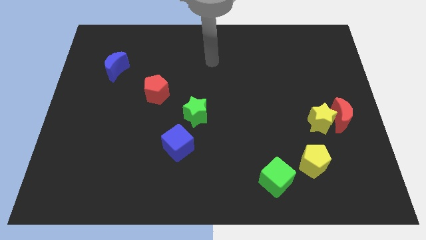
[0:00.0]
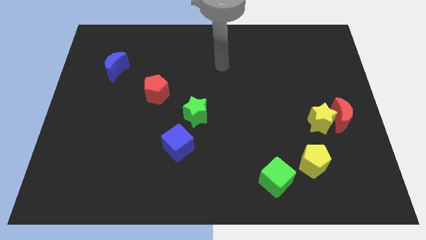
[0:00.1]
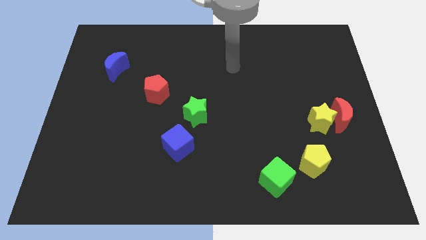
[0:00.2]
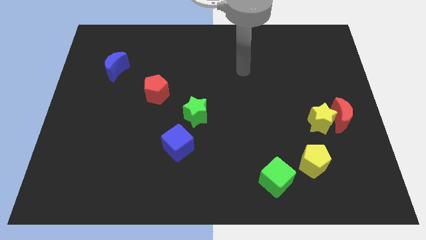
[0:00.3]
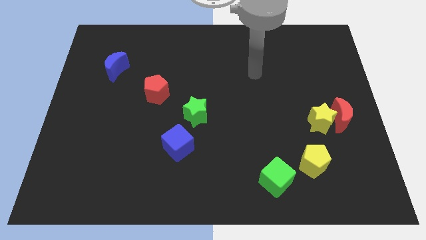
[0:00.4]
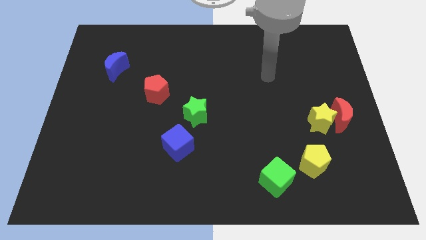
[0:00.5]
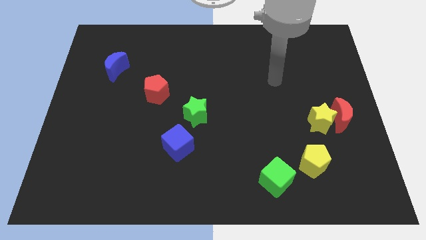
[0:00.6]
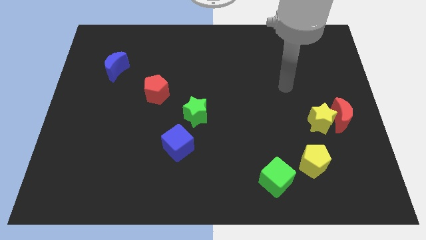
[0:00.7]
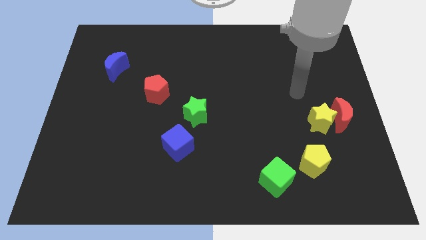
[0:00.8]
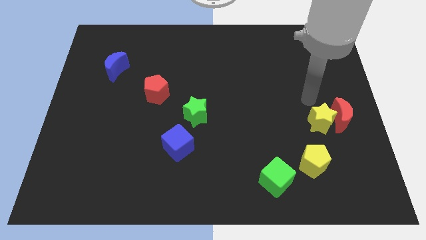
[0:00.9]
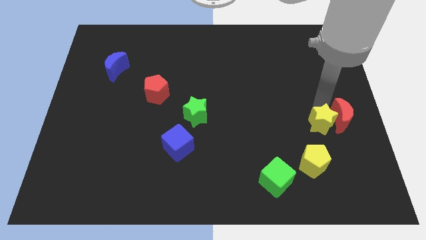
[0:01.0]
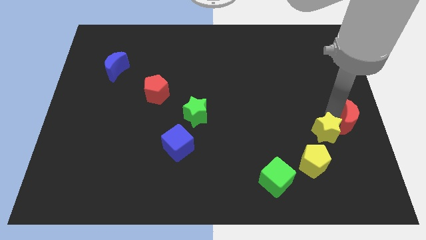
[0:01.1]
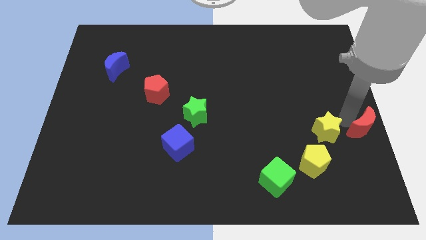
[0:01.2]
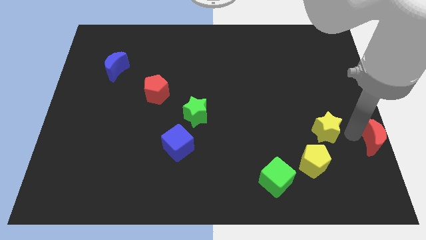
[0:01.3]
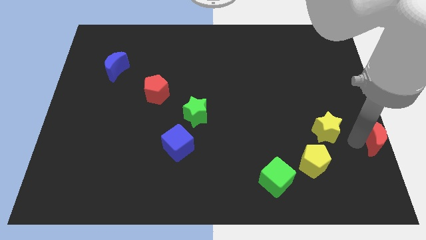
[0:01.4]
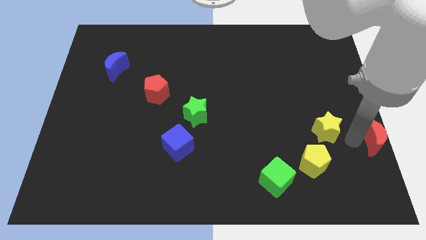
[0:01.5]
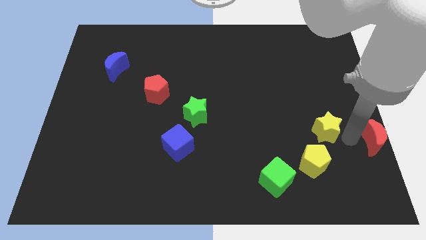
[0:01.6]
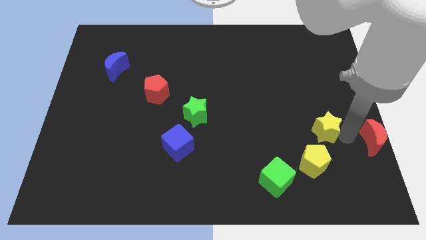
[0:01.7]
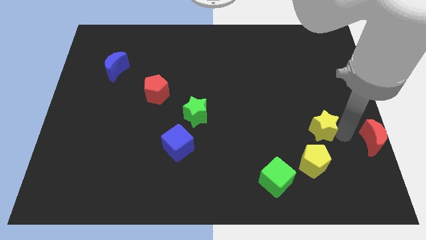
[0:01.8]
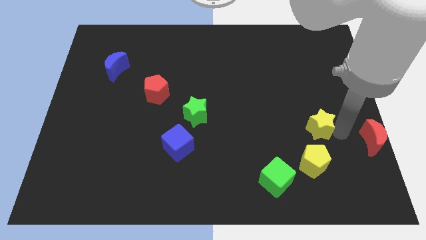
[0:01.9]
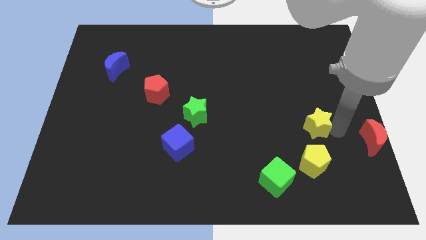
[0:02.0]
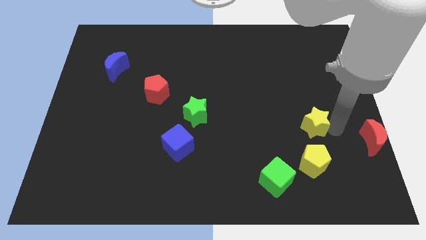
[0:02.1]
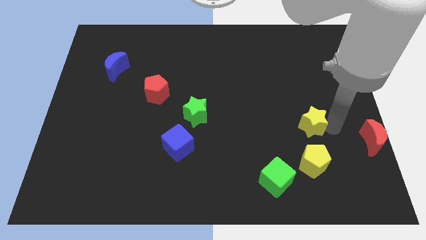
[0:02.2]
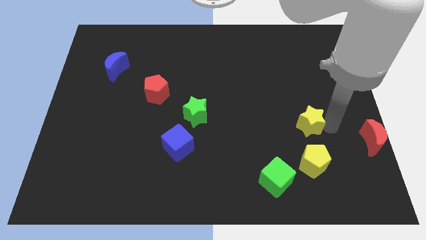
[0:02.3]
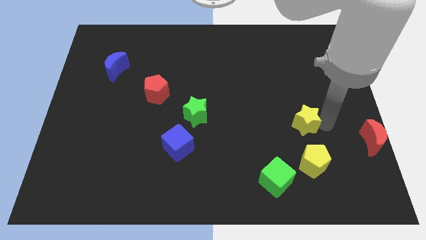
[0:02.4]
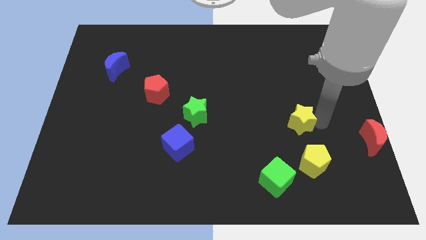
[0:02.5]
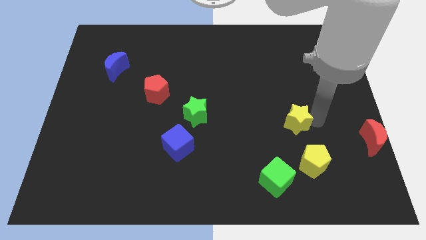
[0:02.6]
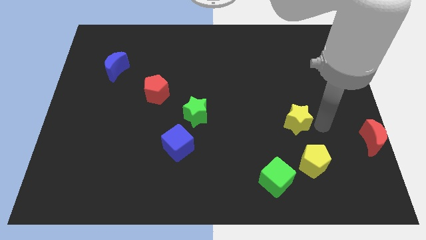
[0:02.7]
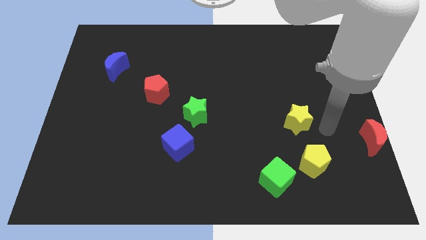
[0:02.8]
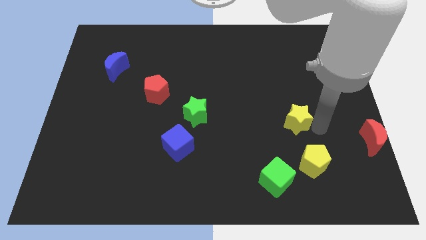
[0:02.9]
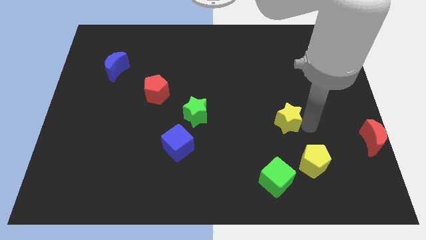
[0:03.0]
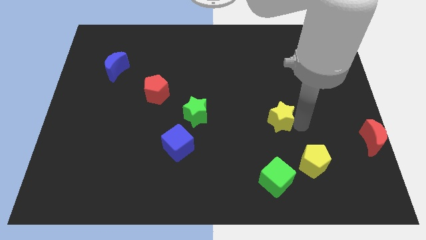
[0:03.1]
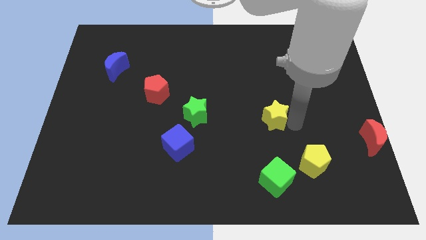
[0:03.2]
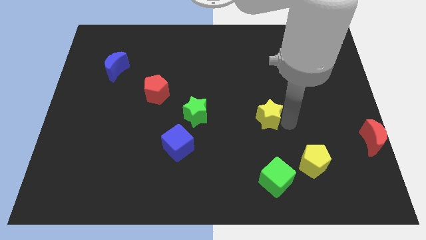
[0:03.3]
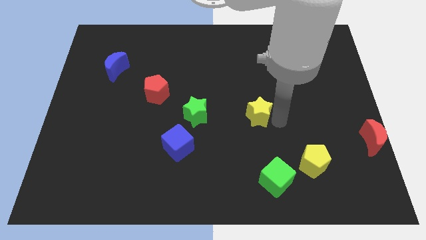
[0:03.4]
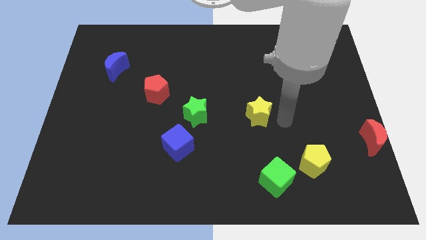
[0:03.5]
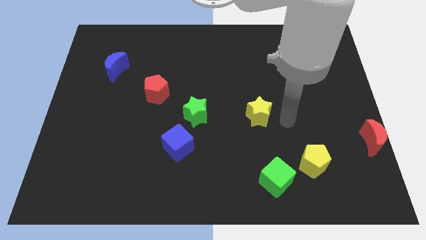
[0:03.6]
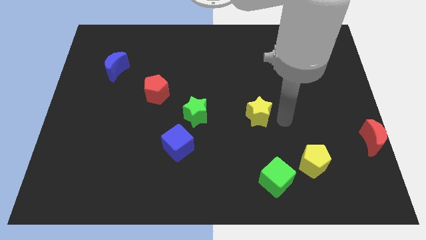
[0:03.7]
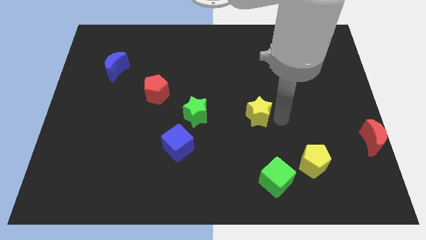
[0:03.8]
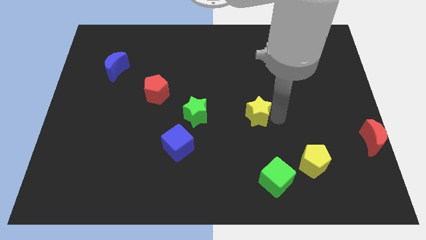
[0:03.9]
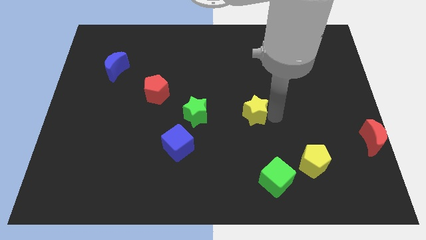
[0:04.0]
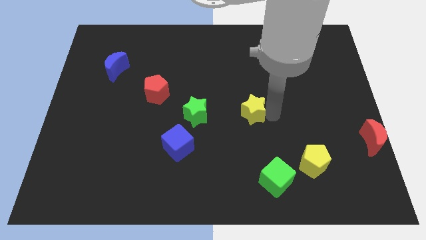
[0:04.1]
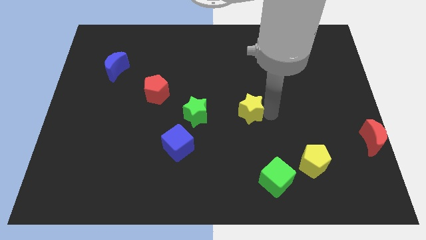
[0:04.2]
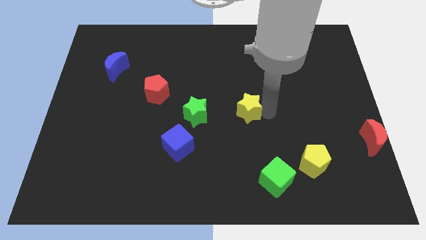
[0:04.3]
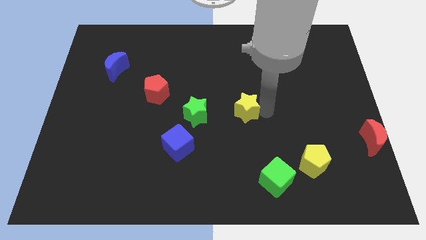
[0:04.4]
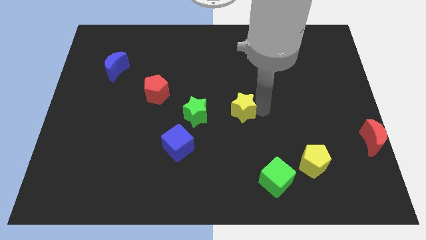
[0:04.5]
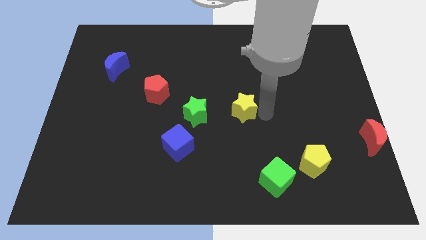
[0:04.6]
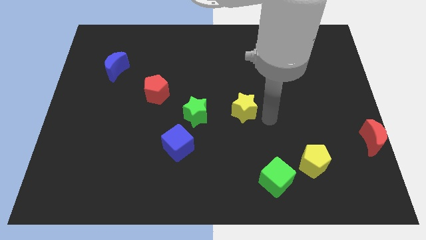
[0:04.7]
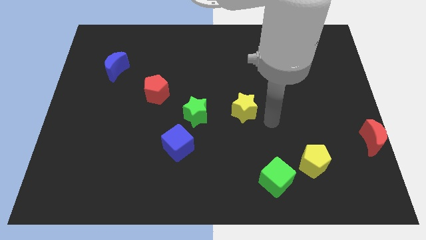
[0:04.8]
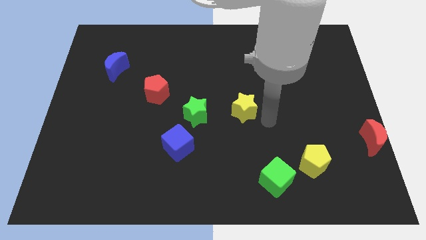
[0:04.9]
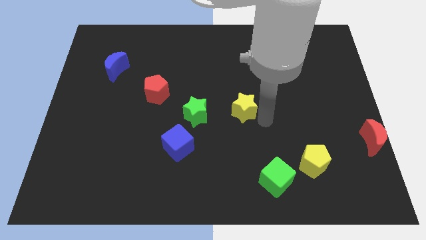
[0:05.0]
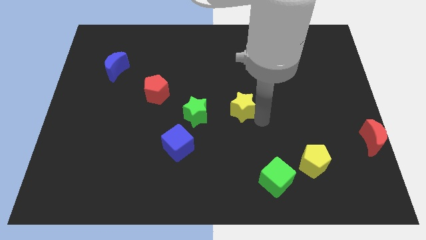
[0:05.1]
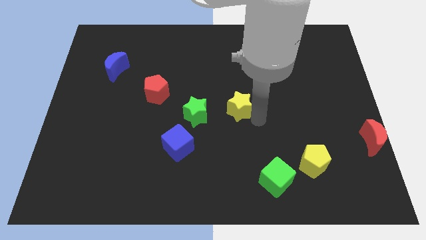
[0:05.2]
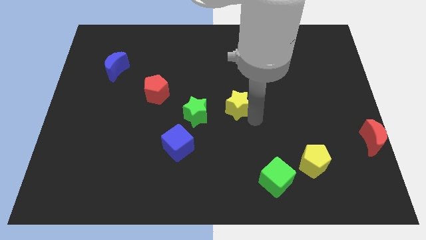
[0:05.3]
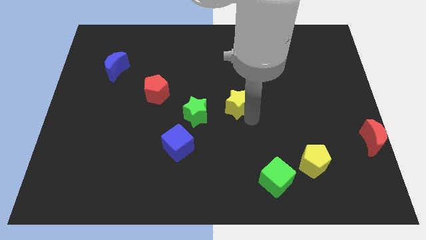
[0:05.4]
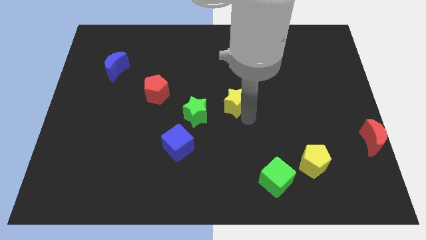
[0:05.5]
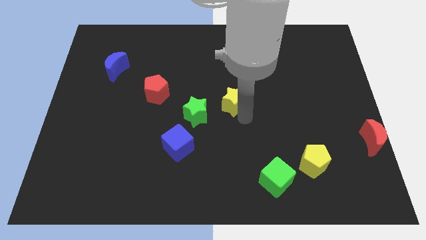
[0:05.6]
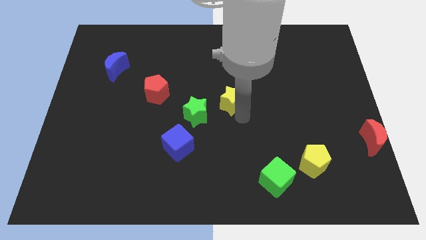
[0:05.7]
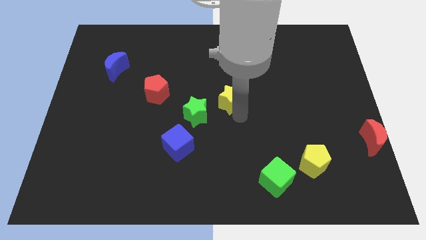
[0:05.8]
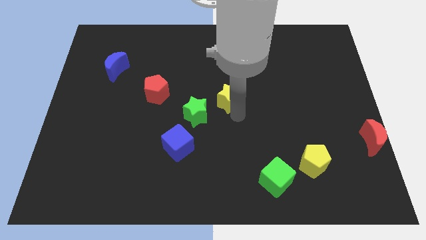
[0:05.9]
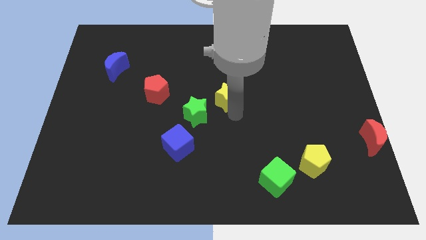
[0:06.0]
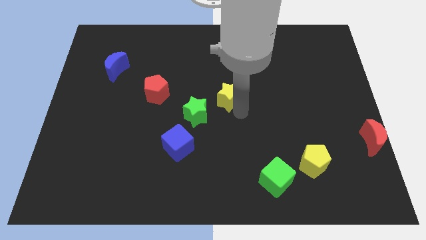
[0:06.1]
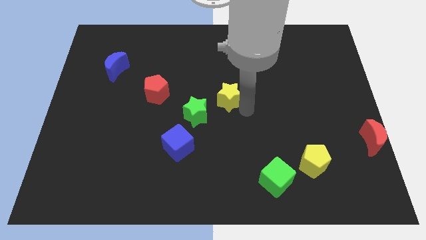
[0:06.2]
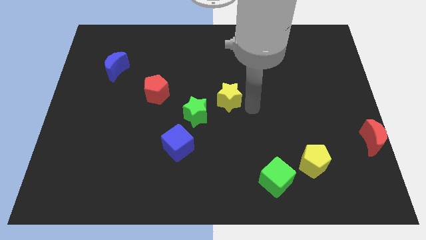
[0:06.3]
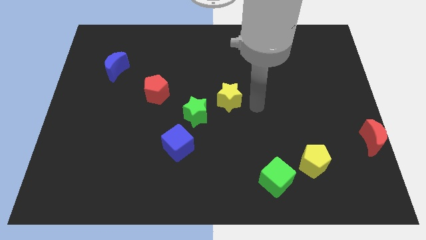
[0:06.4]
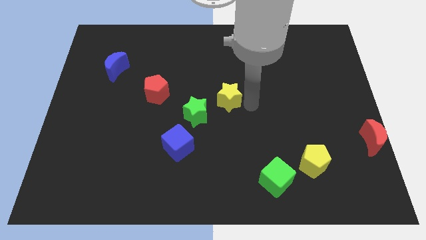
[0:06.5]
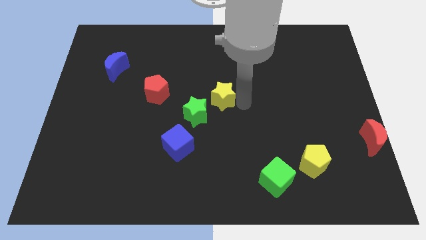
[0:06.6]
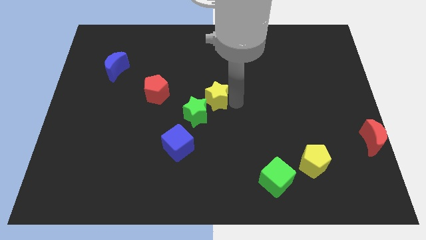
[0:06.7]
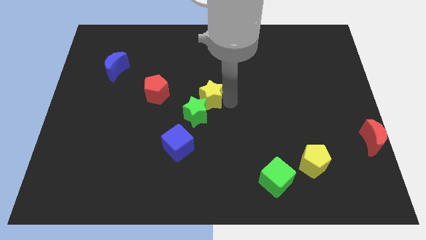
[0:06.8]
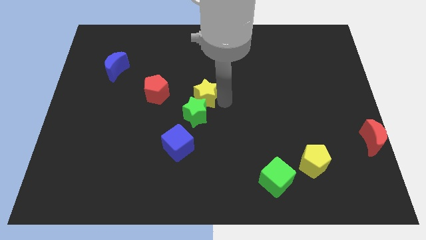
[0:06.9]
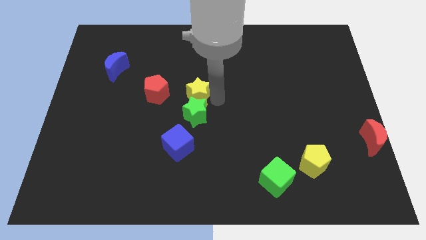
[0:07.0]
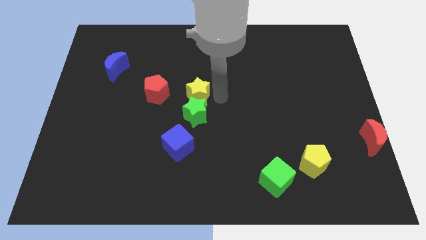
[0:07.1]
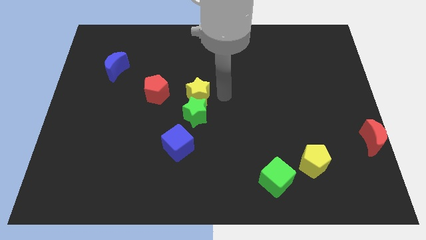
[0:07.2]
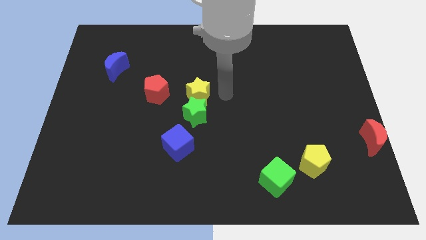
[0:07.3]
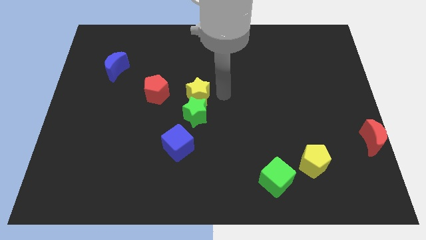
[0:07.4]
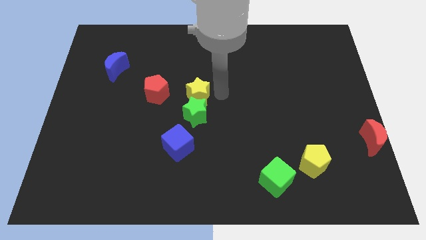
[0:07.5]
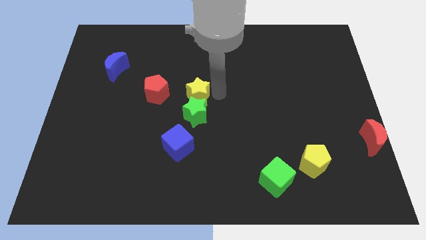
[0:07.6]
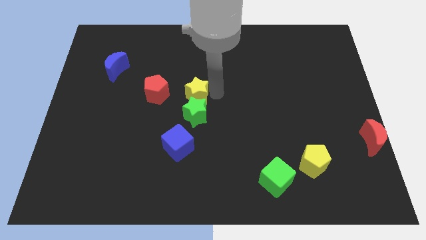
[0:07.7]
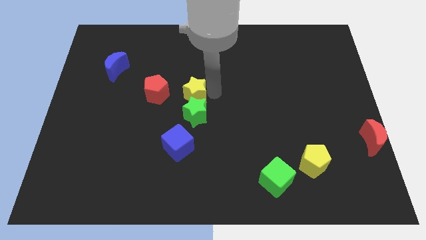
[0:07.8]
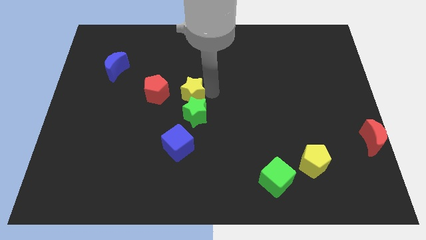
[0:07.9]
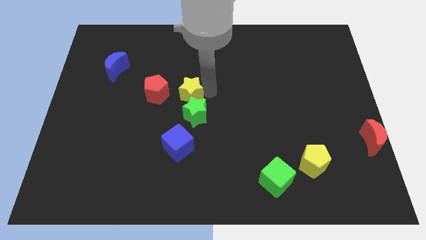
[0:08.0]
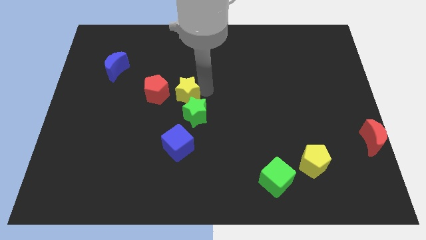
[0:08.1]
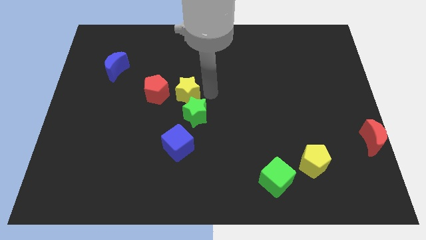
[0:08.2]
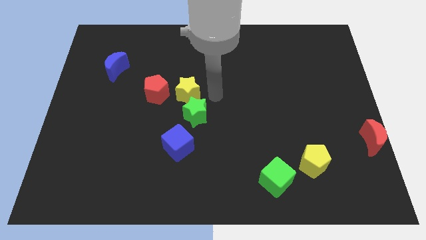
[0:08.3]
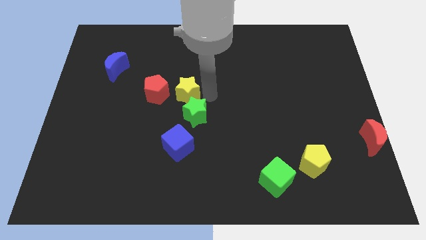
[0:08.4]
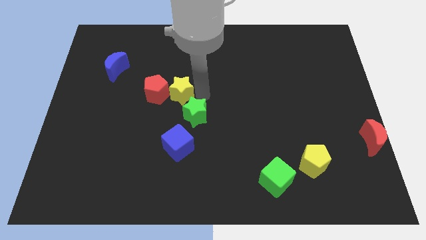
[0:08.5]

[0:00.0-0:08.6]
slide the yellow star next to the red pentagon
